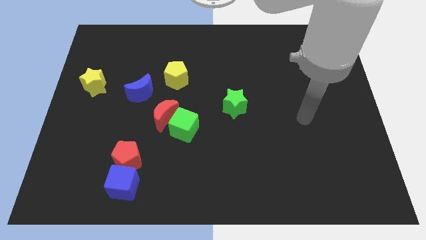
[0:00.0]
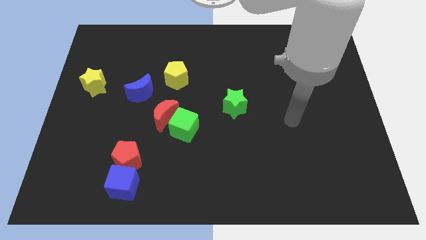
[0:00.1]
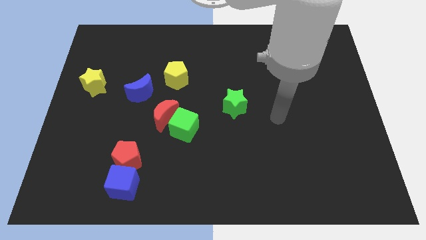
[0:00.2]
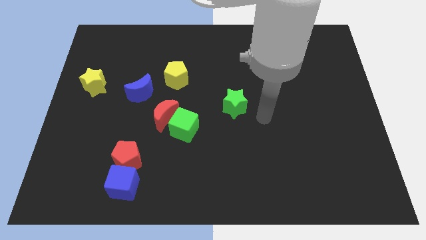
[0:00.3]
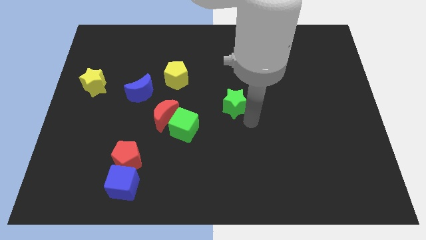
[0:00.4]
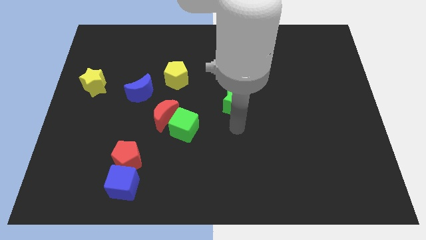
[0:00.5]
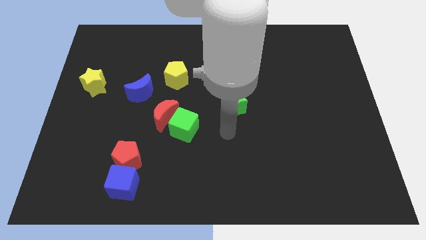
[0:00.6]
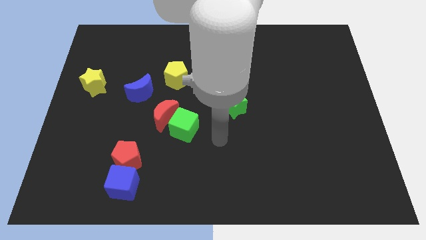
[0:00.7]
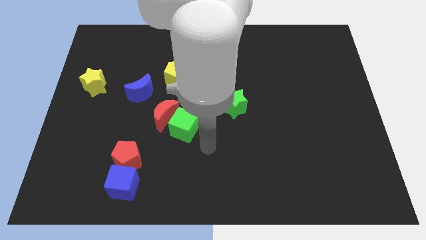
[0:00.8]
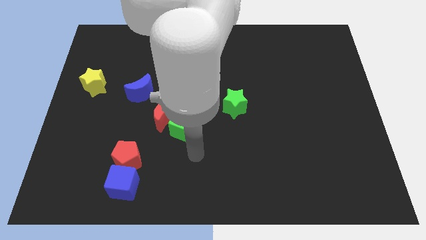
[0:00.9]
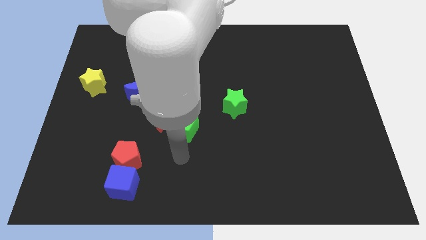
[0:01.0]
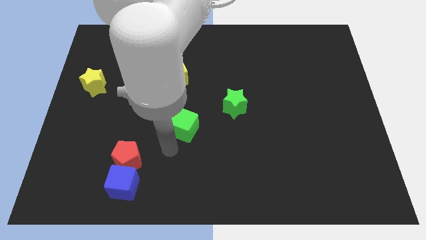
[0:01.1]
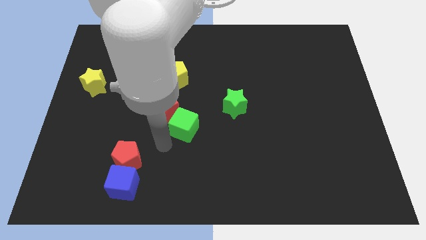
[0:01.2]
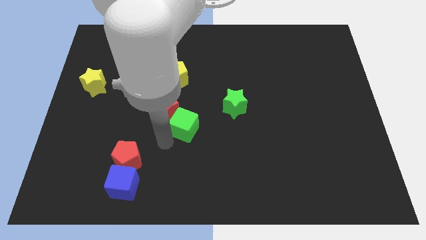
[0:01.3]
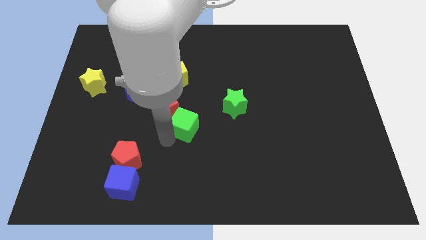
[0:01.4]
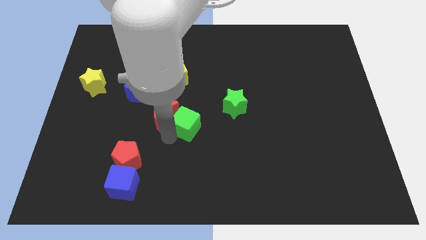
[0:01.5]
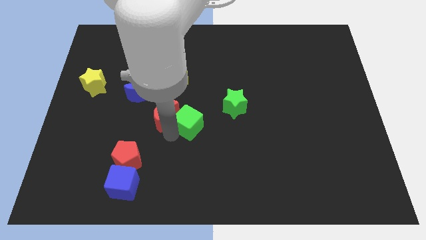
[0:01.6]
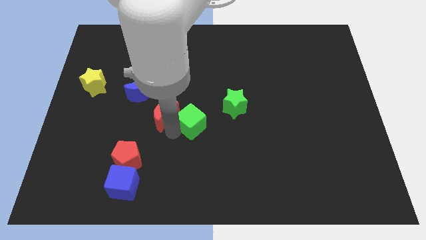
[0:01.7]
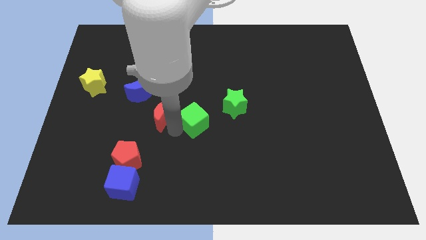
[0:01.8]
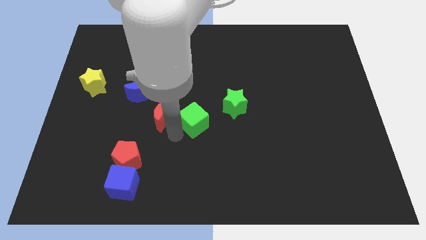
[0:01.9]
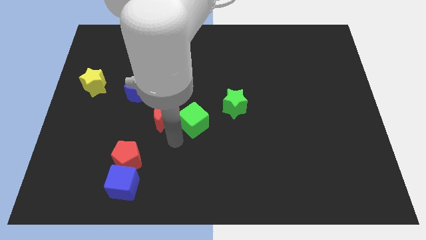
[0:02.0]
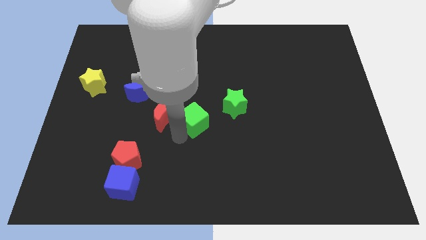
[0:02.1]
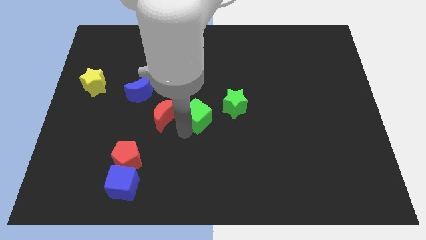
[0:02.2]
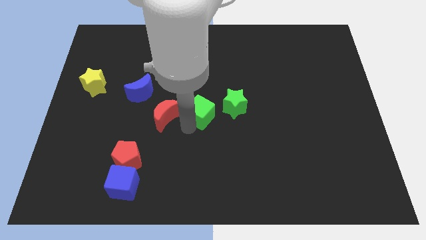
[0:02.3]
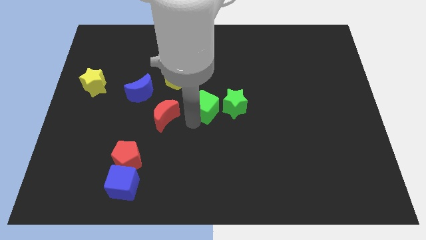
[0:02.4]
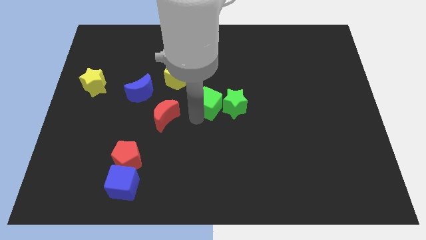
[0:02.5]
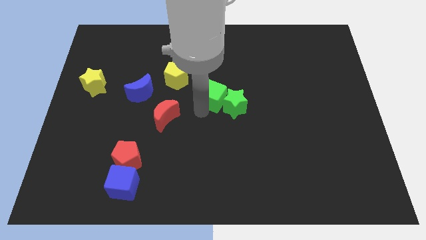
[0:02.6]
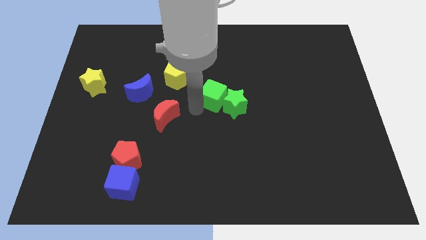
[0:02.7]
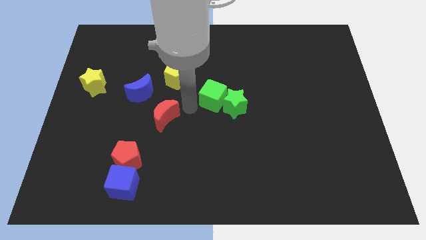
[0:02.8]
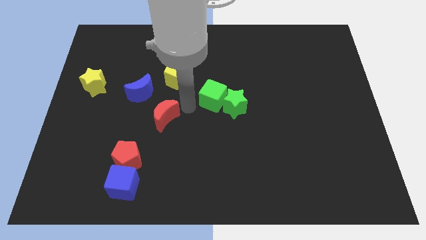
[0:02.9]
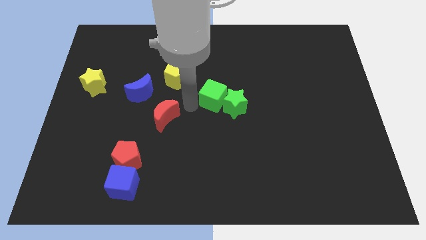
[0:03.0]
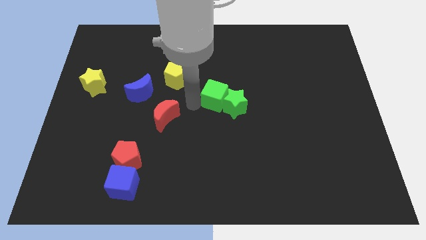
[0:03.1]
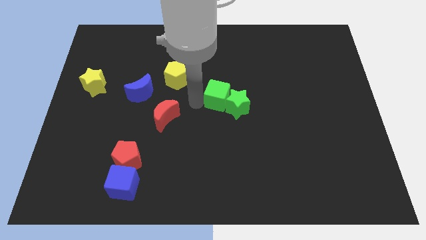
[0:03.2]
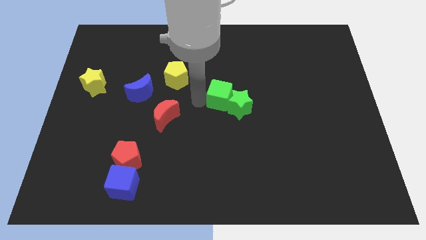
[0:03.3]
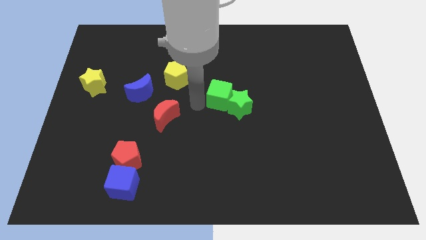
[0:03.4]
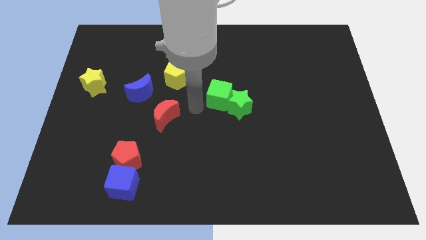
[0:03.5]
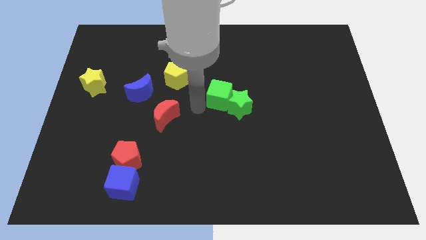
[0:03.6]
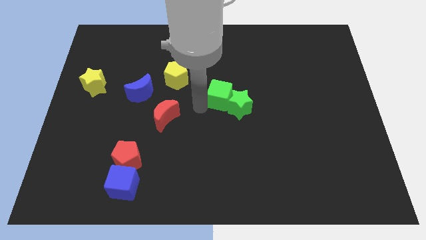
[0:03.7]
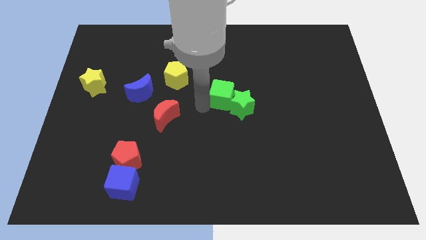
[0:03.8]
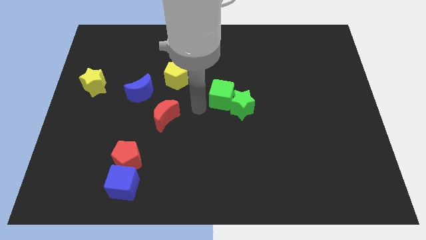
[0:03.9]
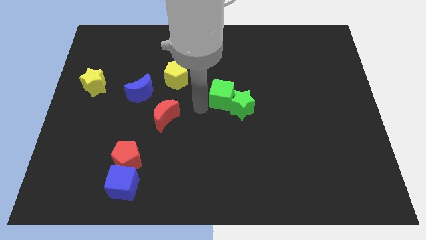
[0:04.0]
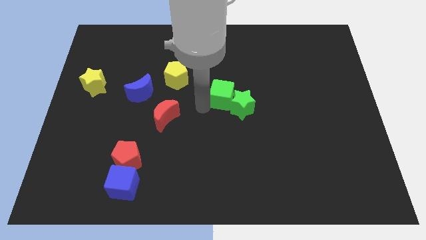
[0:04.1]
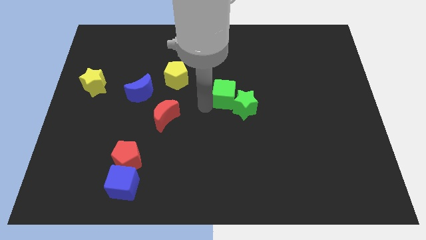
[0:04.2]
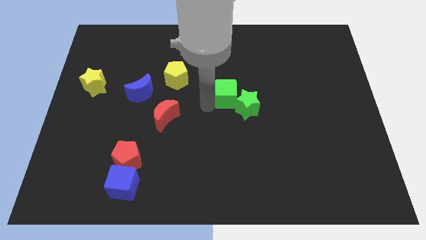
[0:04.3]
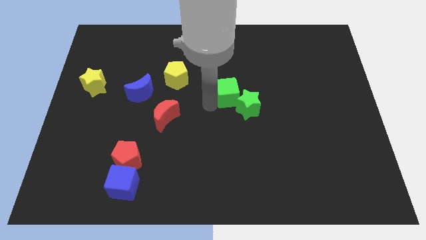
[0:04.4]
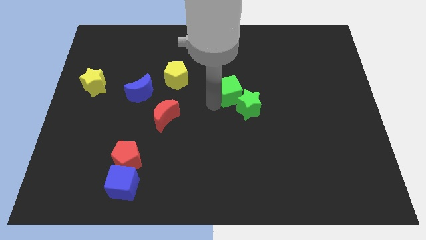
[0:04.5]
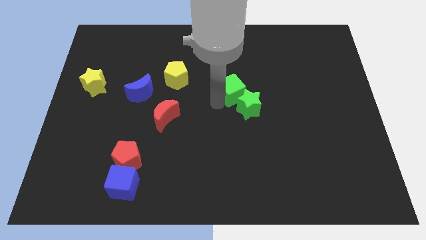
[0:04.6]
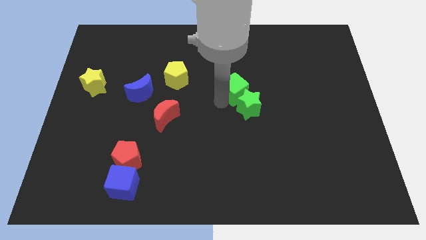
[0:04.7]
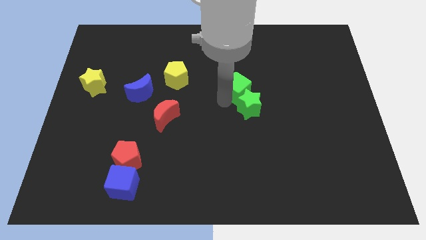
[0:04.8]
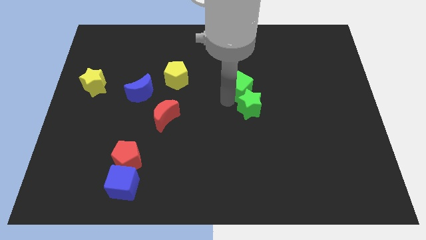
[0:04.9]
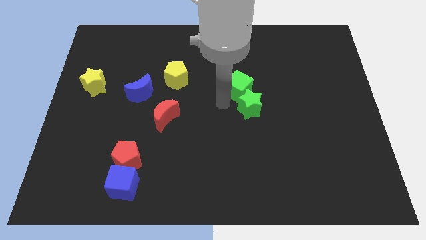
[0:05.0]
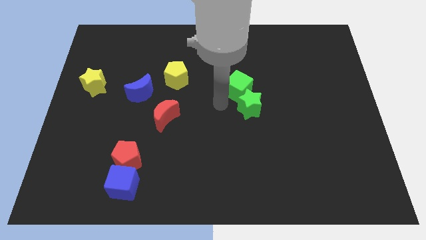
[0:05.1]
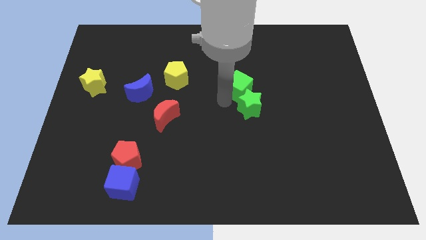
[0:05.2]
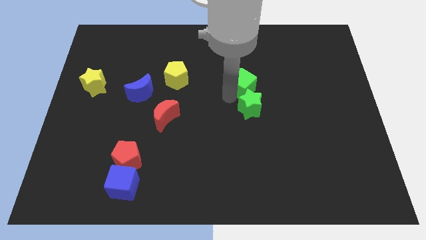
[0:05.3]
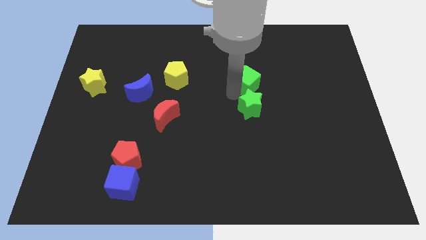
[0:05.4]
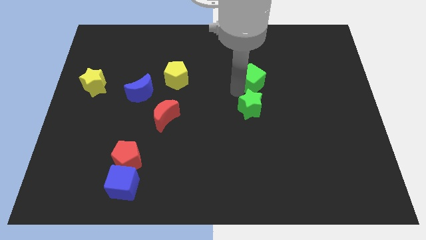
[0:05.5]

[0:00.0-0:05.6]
push the green cube diagonally upwards and right

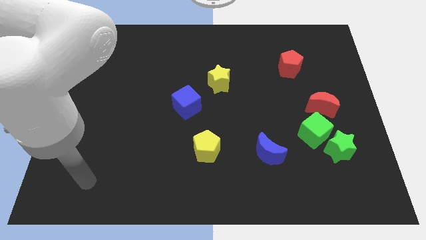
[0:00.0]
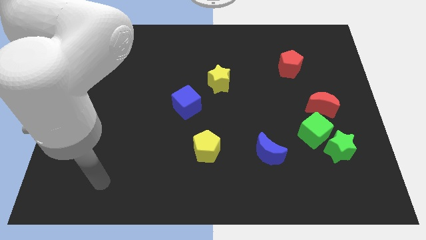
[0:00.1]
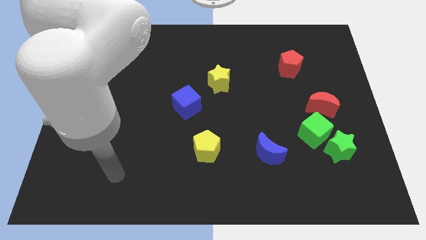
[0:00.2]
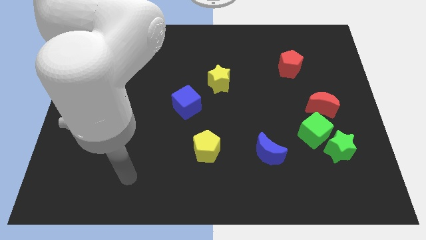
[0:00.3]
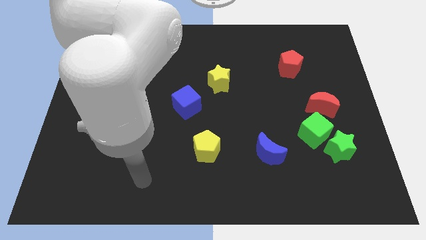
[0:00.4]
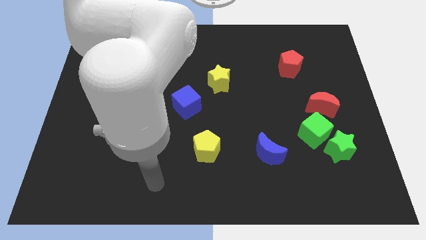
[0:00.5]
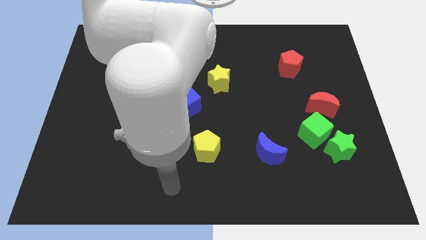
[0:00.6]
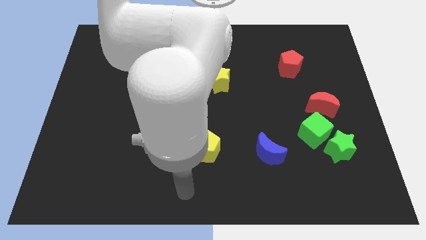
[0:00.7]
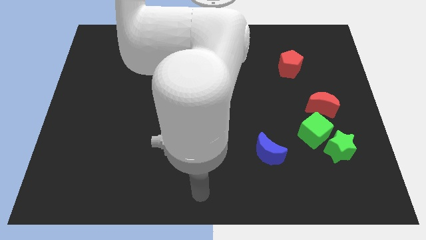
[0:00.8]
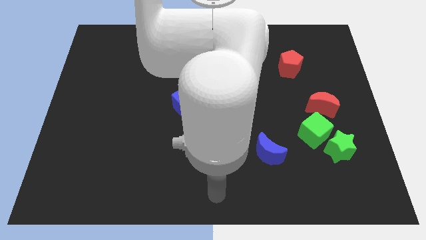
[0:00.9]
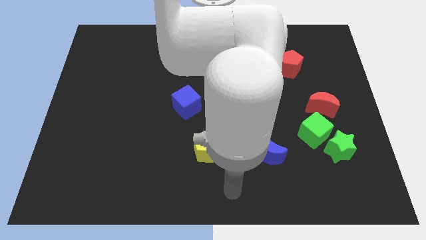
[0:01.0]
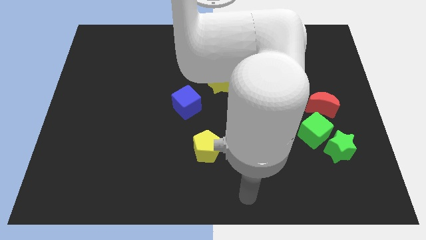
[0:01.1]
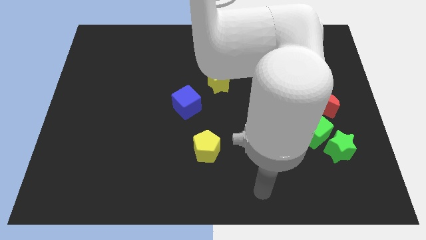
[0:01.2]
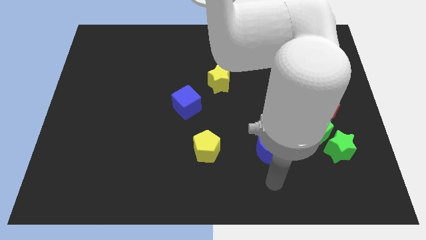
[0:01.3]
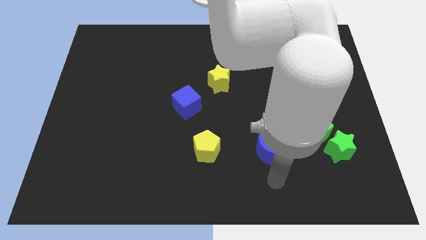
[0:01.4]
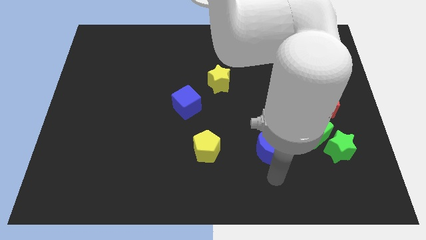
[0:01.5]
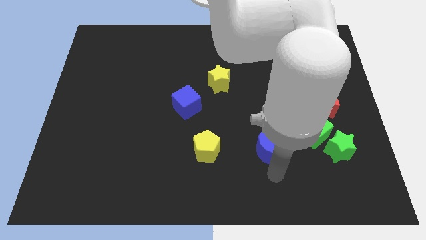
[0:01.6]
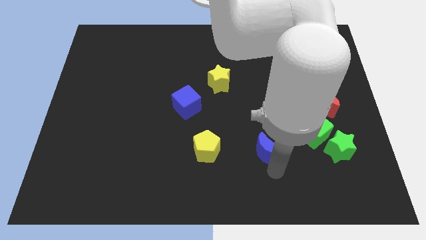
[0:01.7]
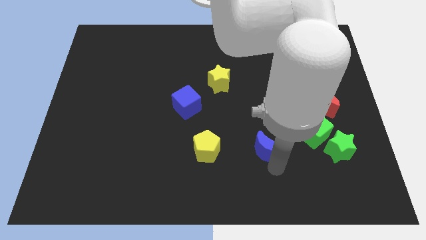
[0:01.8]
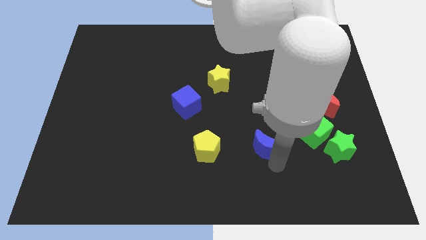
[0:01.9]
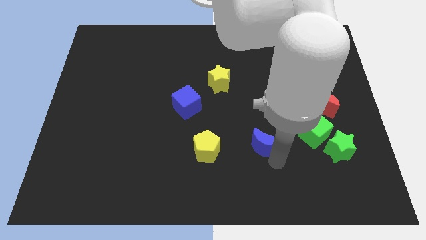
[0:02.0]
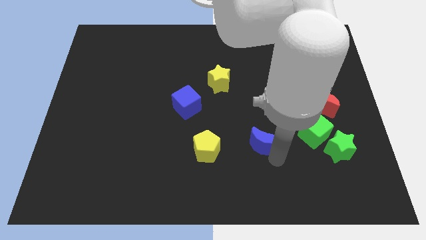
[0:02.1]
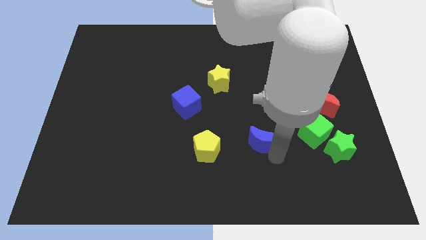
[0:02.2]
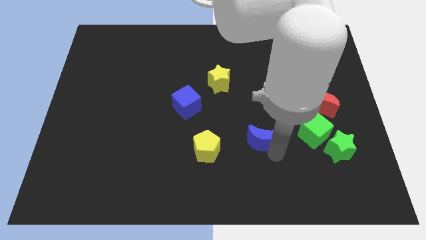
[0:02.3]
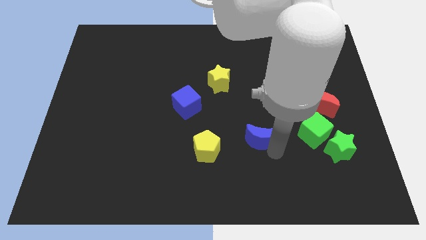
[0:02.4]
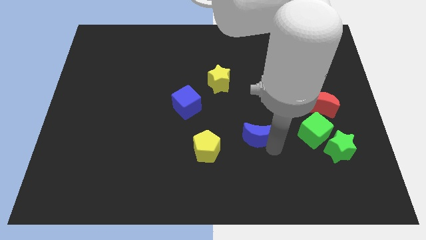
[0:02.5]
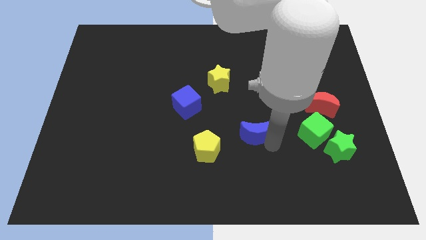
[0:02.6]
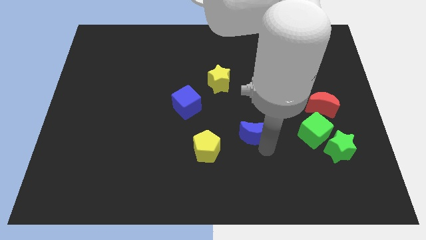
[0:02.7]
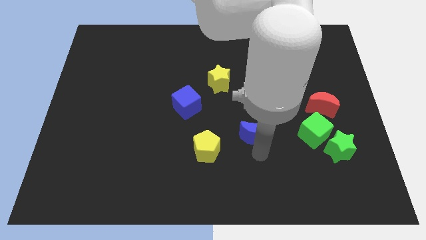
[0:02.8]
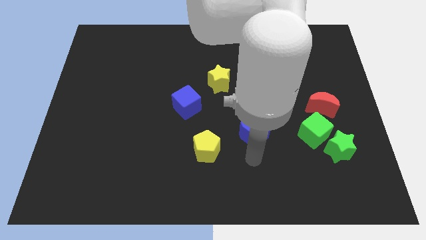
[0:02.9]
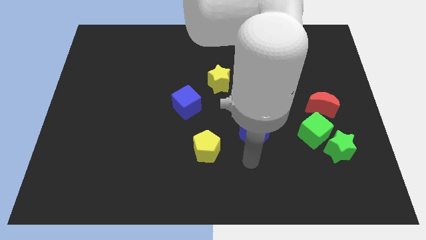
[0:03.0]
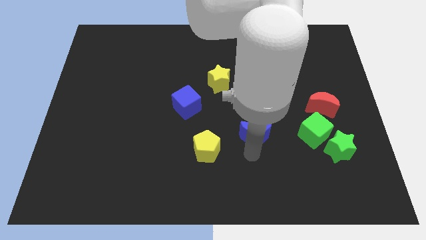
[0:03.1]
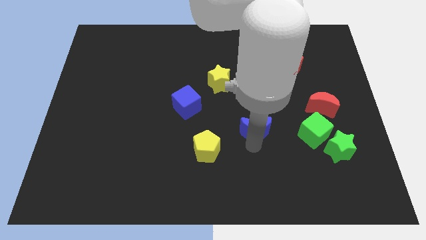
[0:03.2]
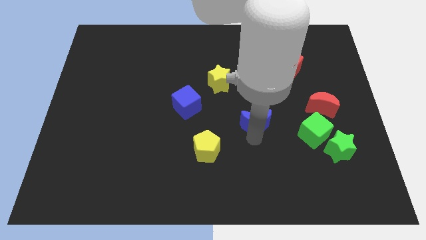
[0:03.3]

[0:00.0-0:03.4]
slightly move the blue moon upwards
